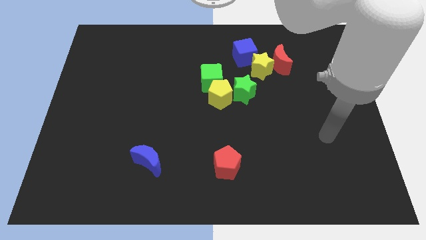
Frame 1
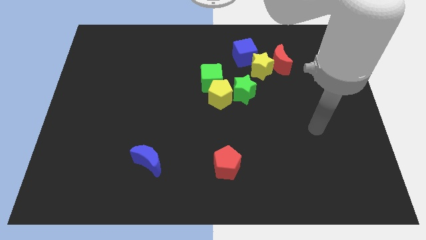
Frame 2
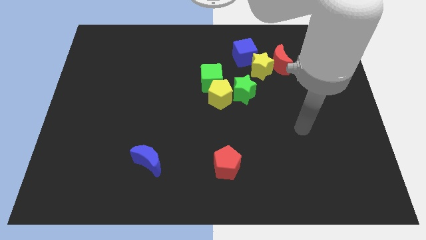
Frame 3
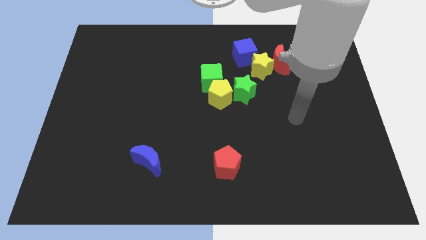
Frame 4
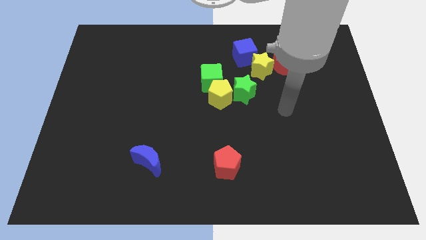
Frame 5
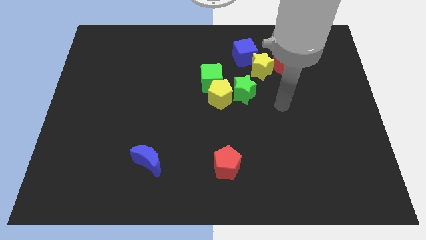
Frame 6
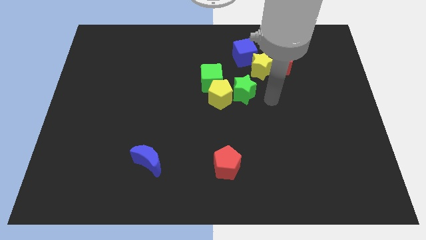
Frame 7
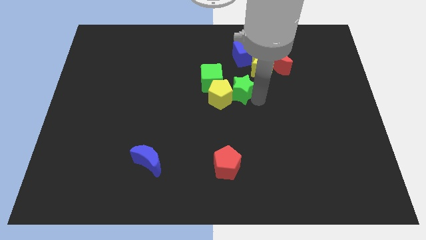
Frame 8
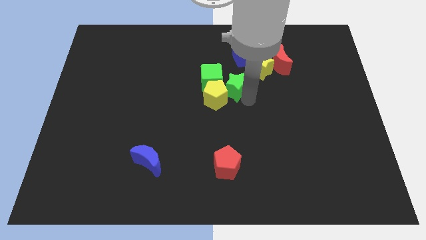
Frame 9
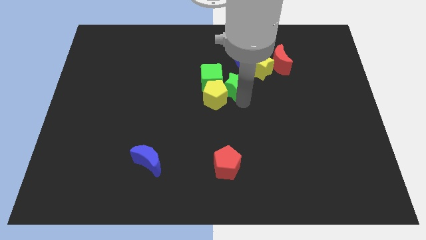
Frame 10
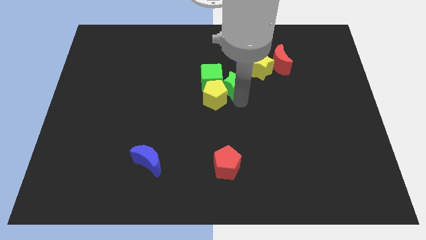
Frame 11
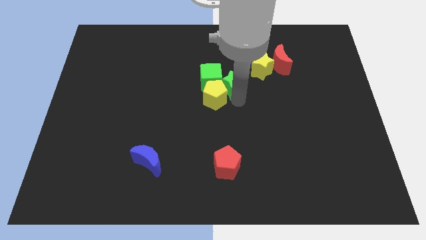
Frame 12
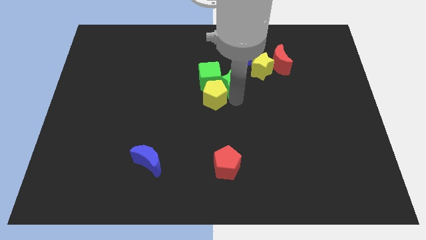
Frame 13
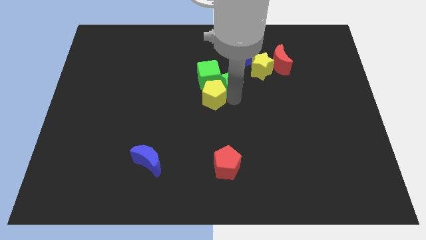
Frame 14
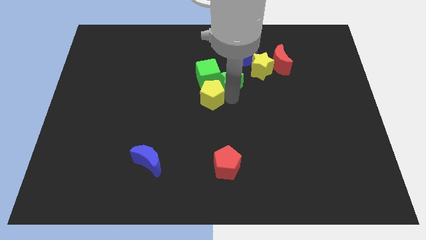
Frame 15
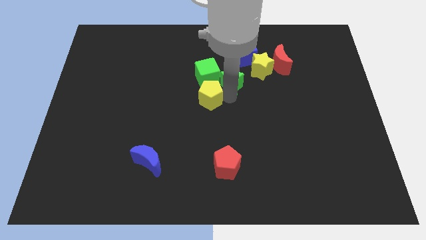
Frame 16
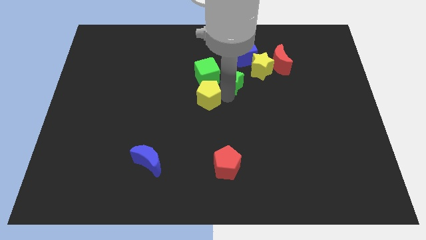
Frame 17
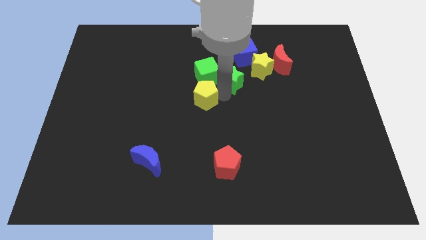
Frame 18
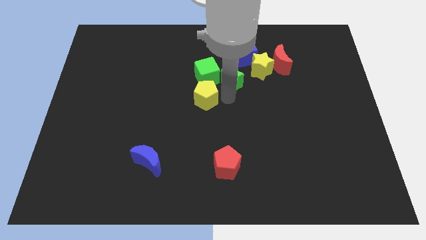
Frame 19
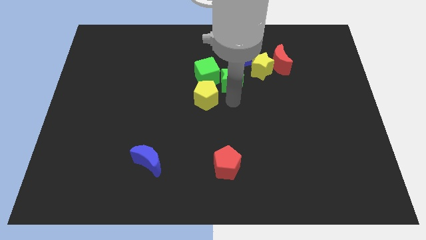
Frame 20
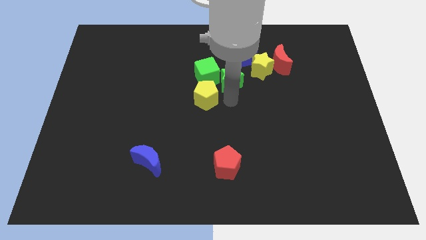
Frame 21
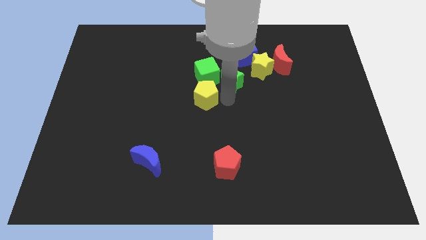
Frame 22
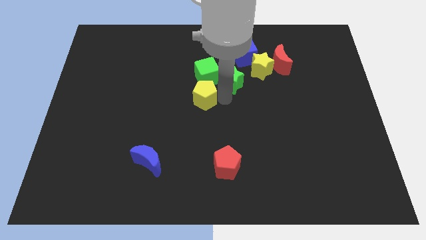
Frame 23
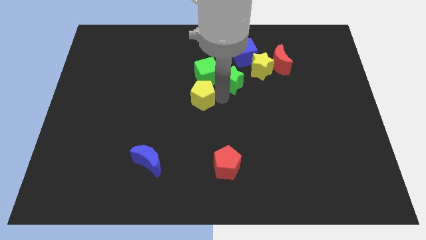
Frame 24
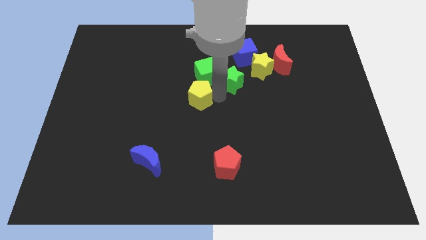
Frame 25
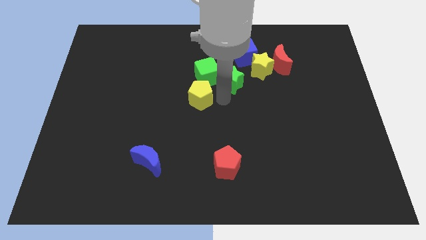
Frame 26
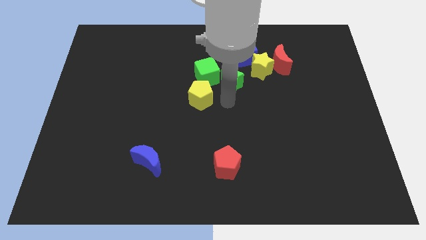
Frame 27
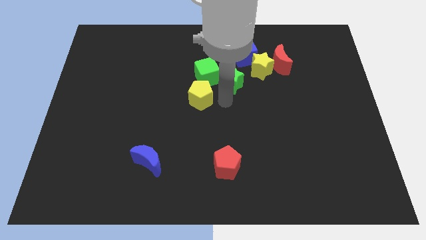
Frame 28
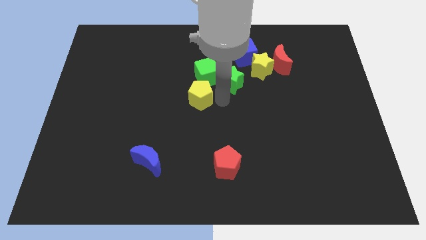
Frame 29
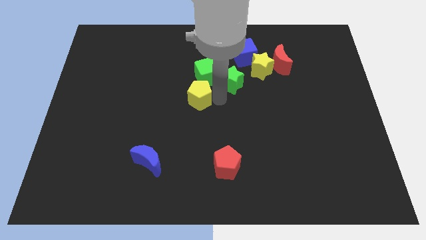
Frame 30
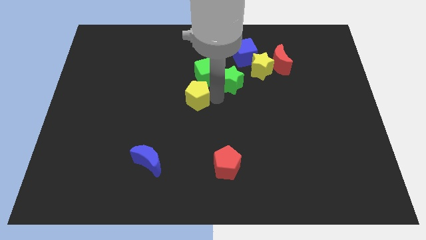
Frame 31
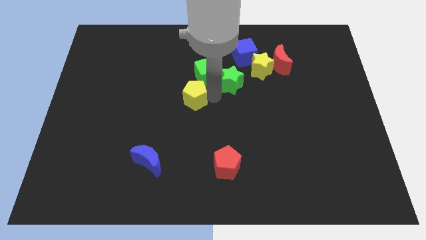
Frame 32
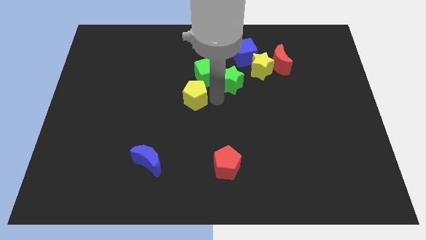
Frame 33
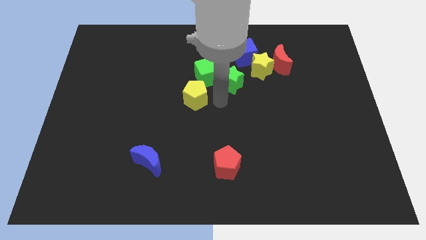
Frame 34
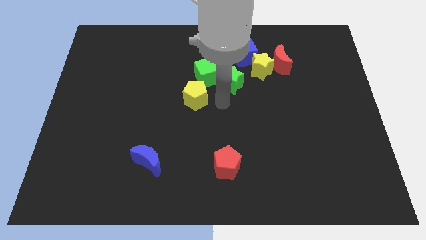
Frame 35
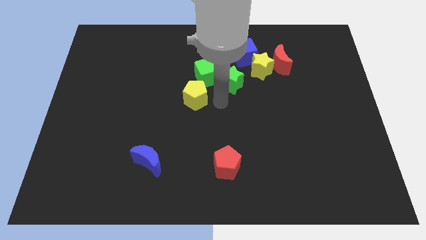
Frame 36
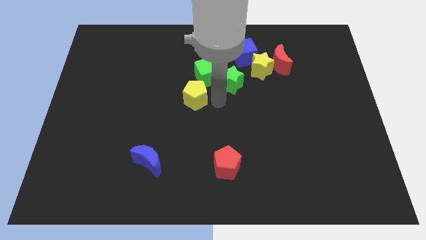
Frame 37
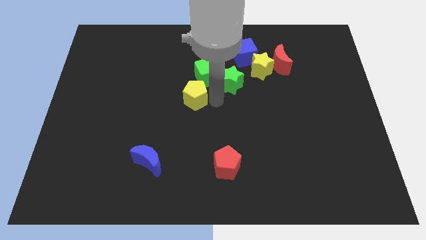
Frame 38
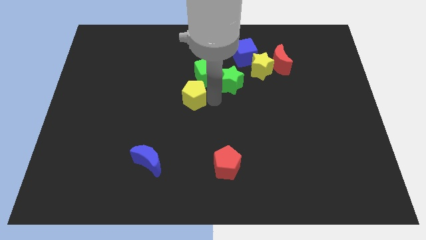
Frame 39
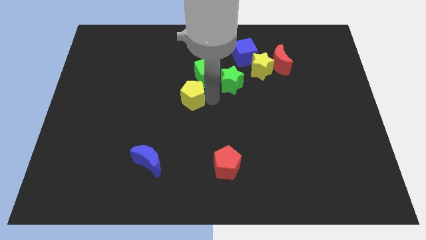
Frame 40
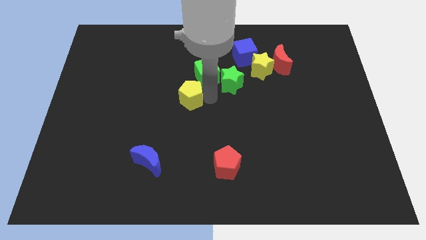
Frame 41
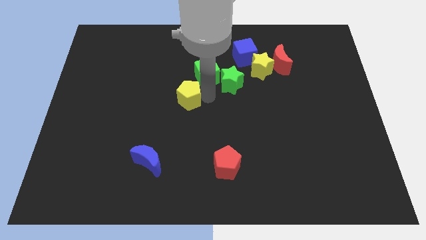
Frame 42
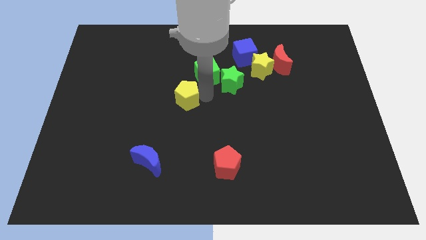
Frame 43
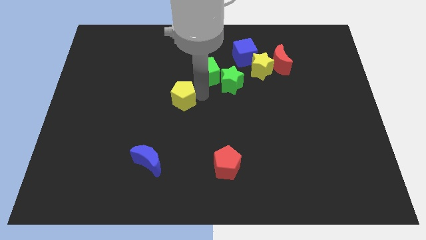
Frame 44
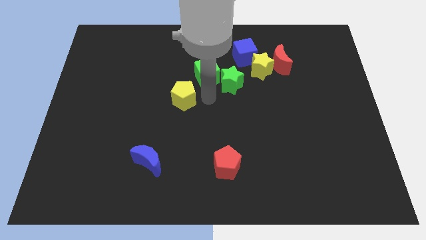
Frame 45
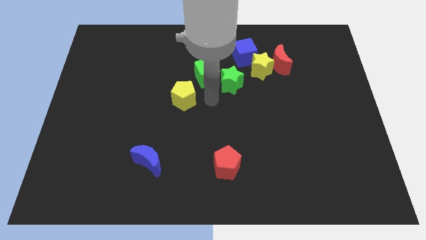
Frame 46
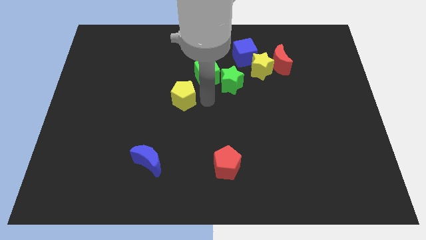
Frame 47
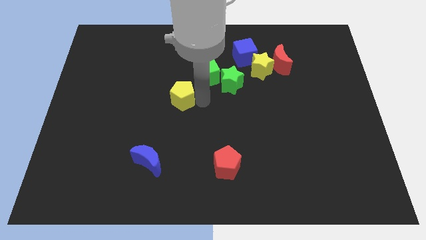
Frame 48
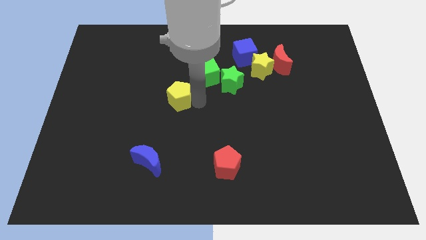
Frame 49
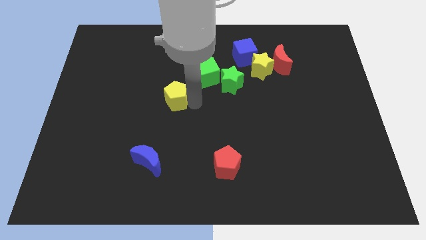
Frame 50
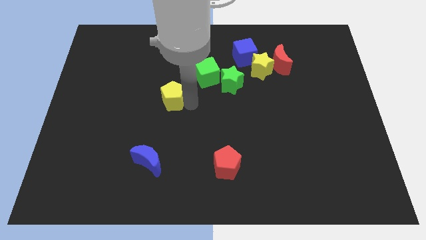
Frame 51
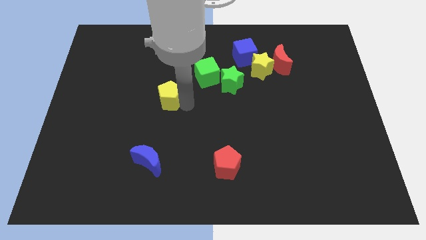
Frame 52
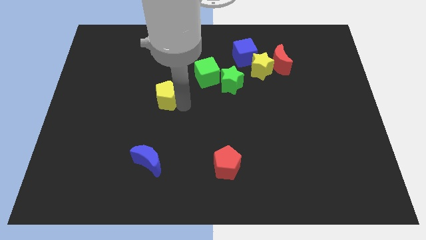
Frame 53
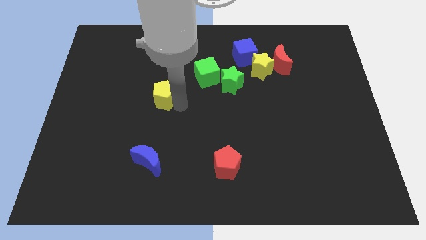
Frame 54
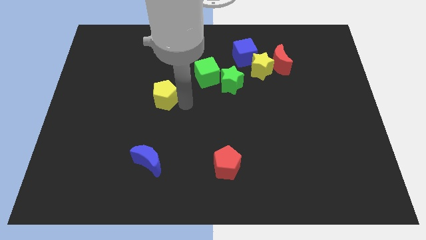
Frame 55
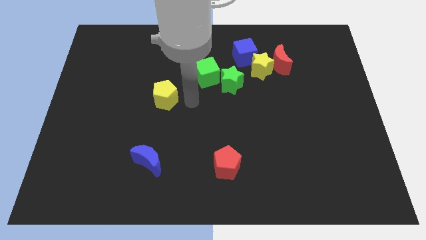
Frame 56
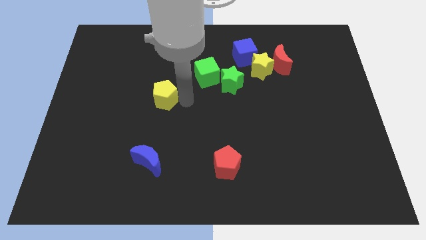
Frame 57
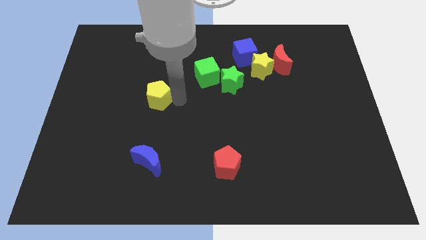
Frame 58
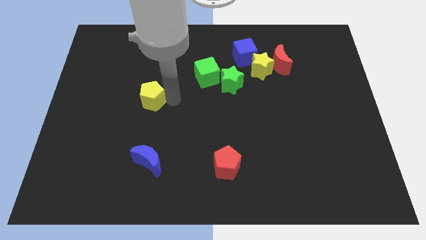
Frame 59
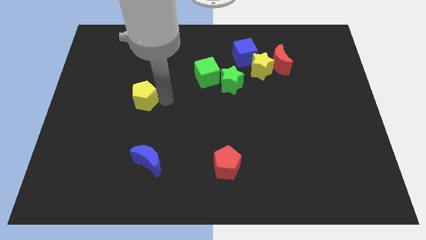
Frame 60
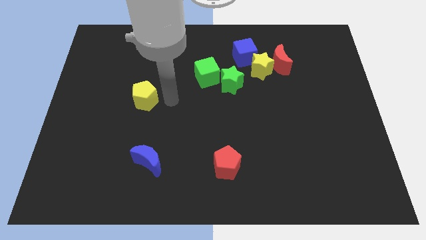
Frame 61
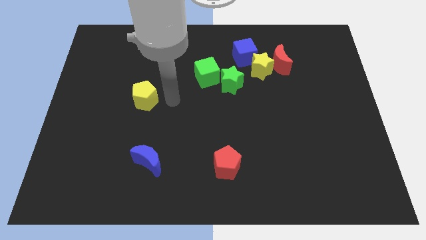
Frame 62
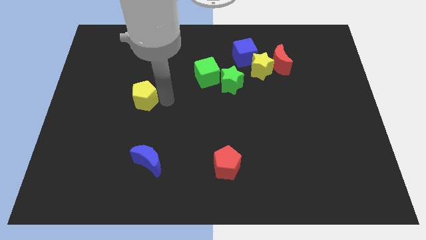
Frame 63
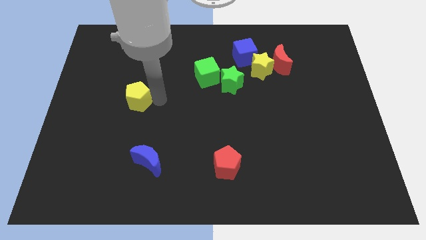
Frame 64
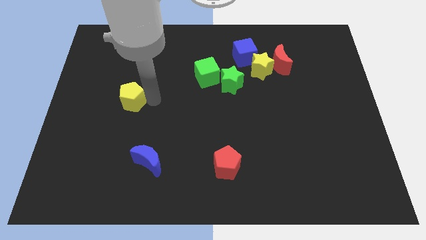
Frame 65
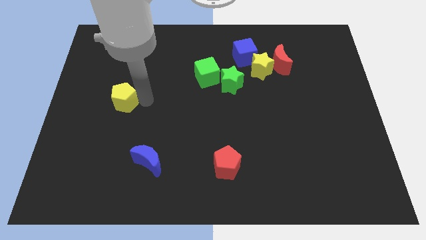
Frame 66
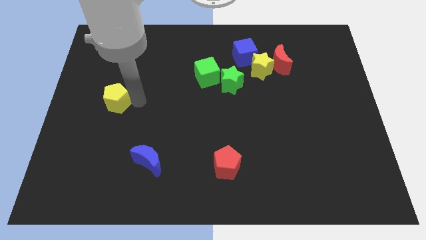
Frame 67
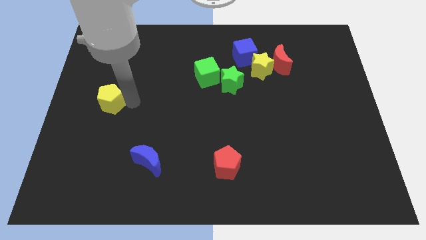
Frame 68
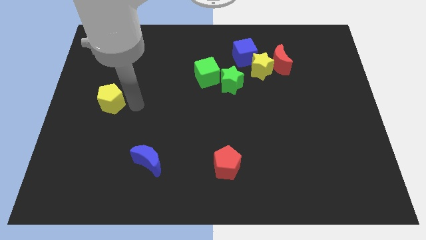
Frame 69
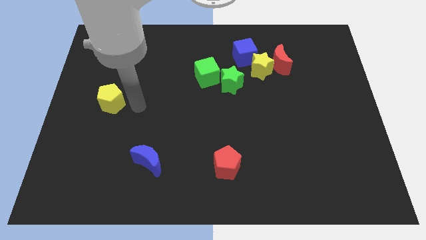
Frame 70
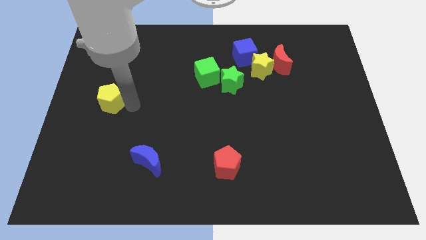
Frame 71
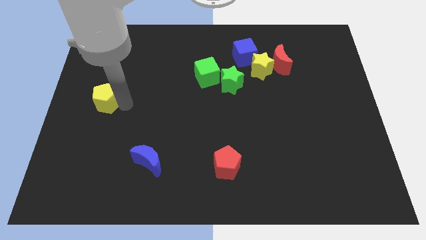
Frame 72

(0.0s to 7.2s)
move the yellow pentagon to the left side of the board
